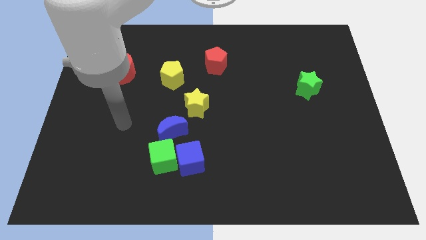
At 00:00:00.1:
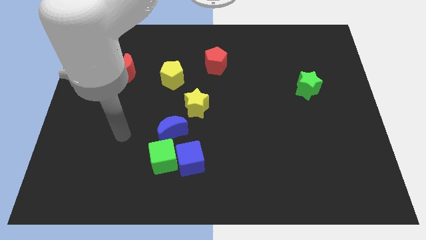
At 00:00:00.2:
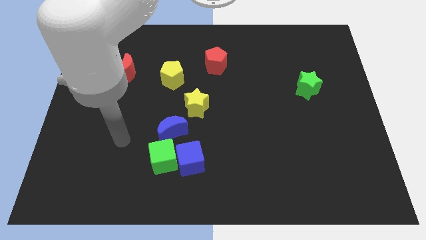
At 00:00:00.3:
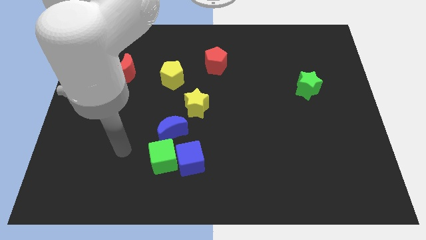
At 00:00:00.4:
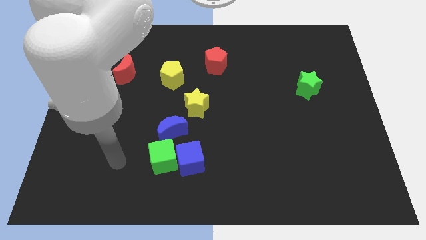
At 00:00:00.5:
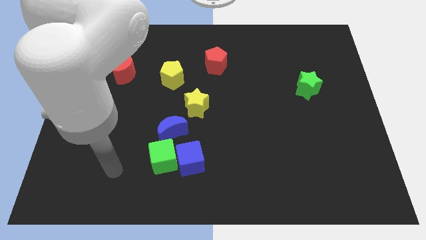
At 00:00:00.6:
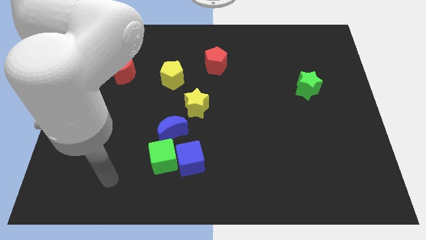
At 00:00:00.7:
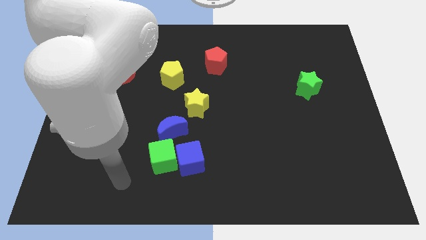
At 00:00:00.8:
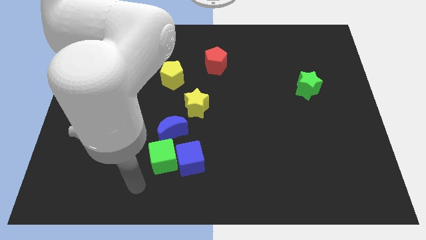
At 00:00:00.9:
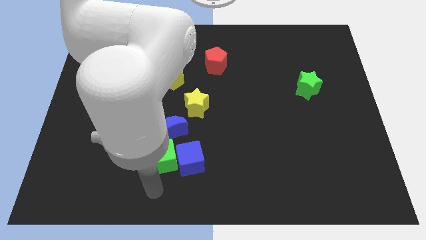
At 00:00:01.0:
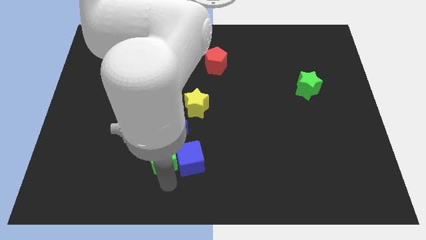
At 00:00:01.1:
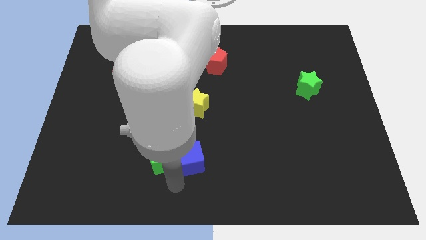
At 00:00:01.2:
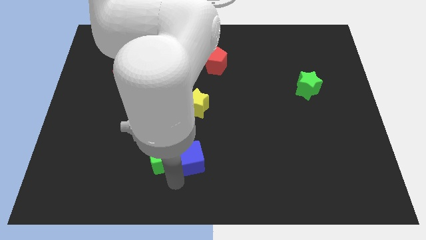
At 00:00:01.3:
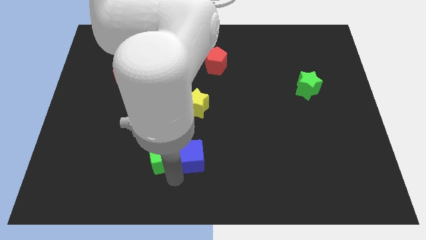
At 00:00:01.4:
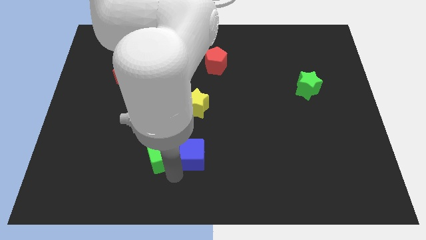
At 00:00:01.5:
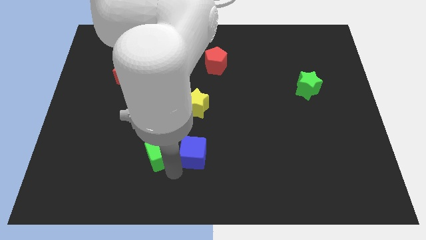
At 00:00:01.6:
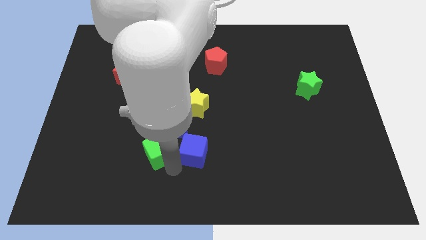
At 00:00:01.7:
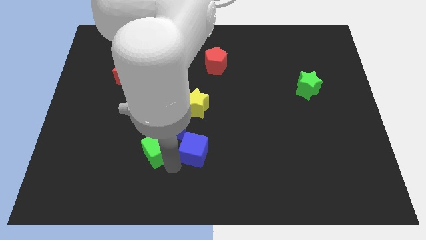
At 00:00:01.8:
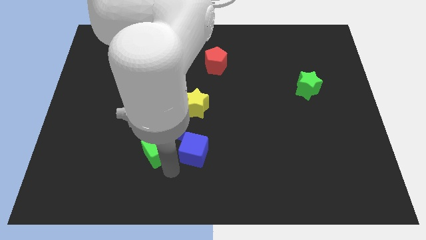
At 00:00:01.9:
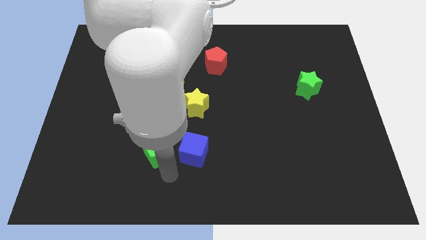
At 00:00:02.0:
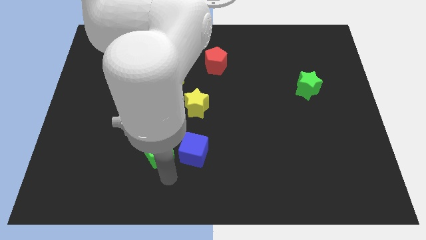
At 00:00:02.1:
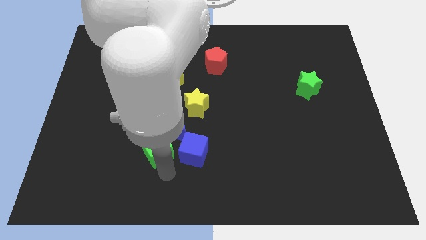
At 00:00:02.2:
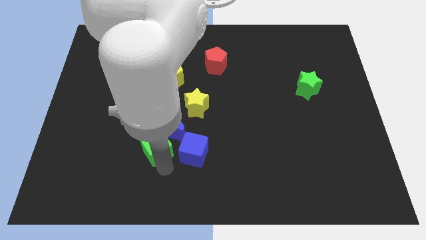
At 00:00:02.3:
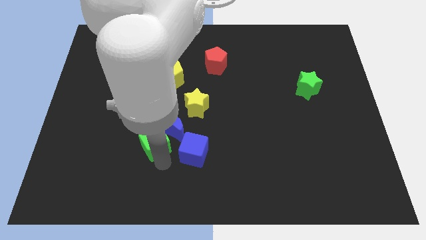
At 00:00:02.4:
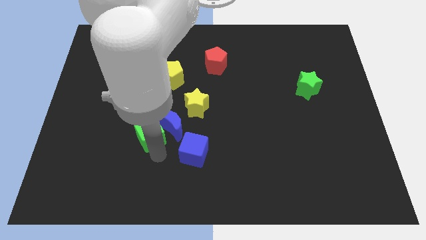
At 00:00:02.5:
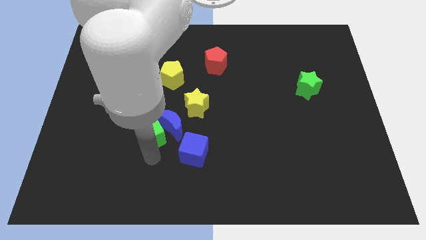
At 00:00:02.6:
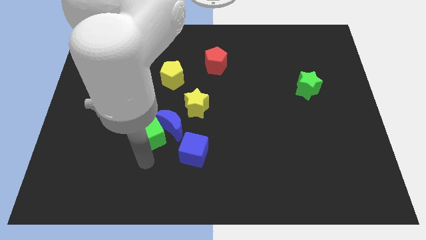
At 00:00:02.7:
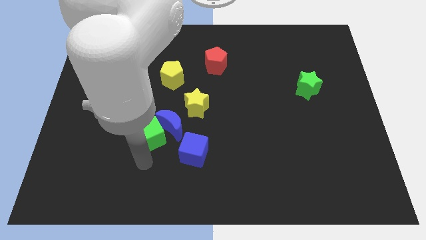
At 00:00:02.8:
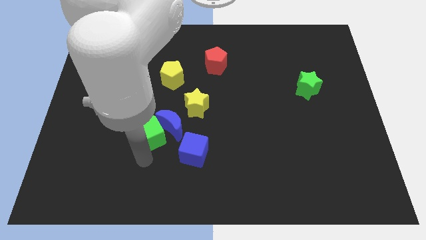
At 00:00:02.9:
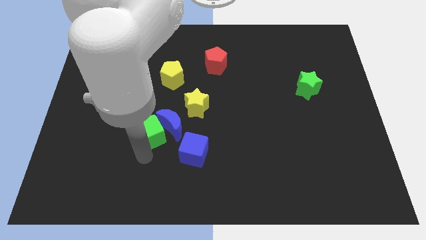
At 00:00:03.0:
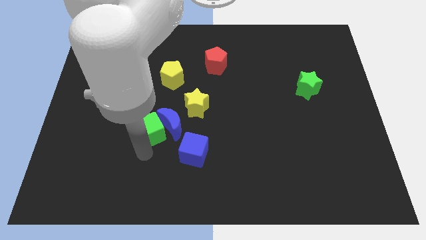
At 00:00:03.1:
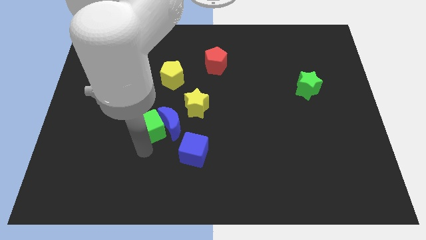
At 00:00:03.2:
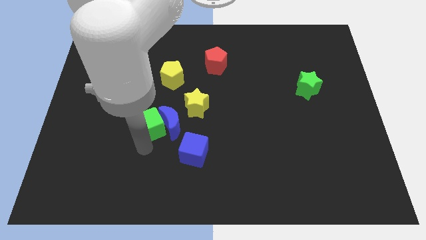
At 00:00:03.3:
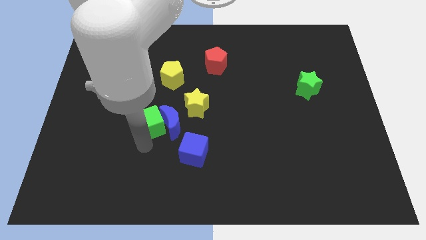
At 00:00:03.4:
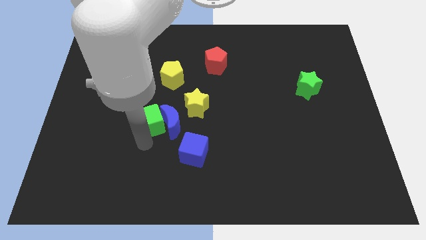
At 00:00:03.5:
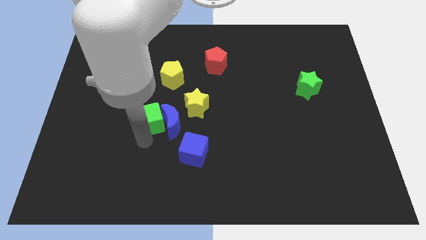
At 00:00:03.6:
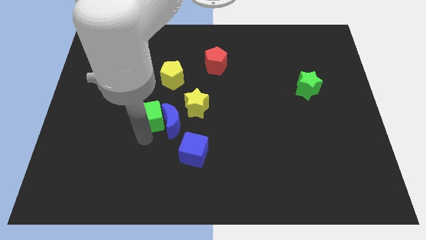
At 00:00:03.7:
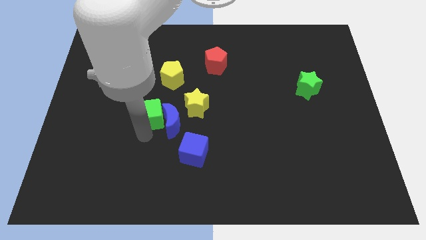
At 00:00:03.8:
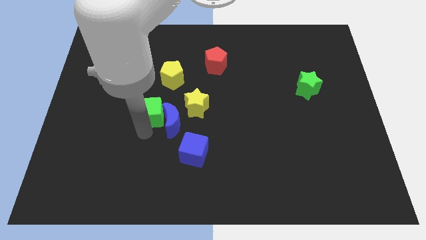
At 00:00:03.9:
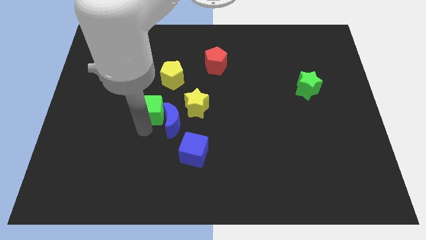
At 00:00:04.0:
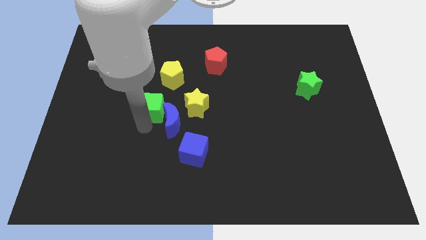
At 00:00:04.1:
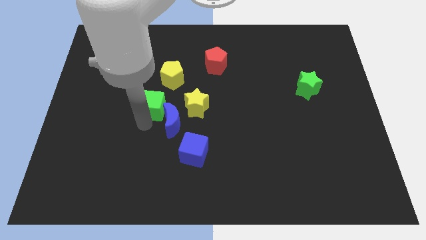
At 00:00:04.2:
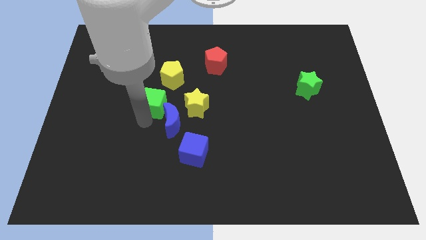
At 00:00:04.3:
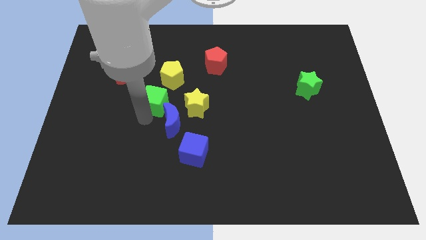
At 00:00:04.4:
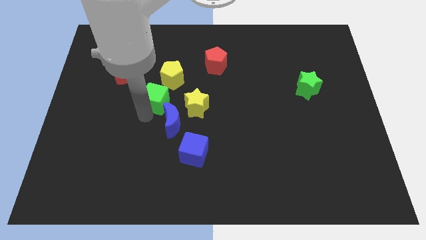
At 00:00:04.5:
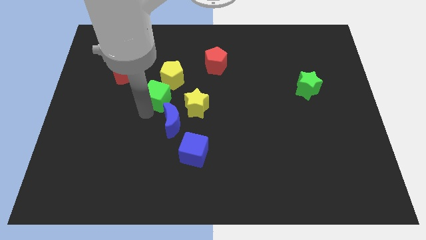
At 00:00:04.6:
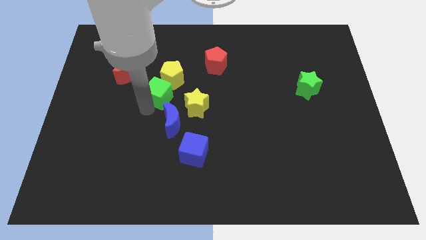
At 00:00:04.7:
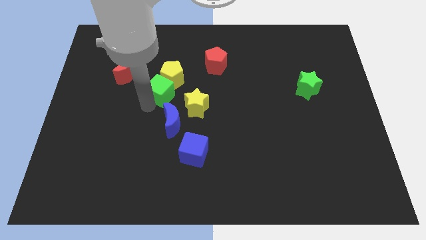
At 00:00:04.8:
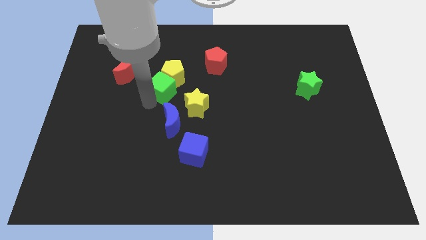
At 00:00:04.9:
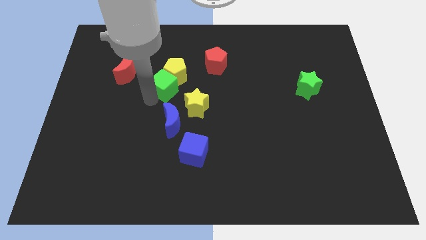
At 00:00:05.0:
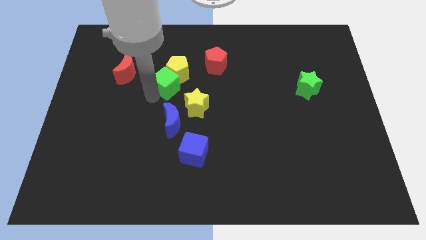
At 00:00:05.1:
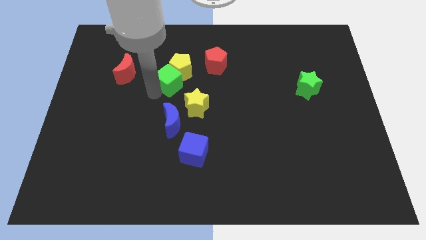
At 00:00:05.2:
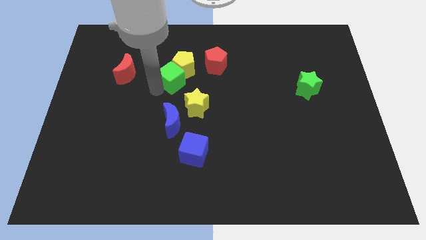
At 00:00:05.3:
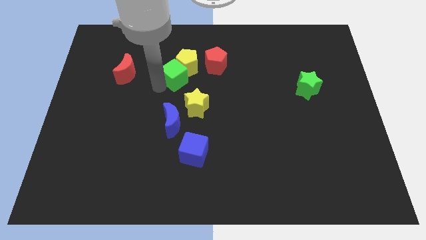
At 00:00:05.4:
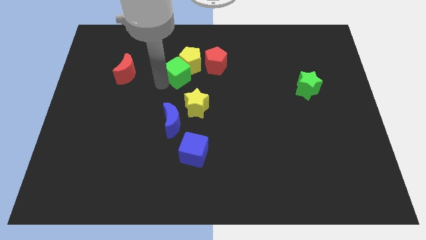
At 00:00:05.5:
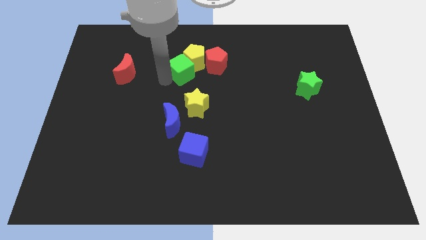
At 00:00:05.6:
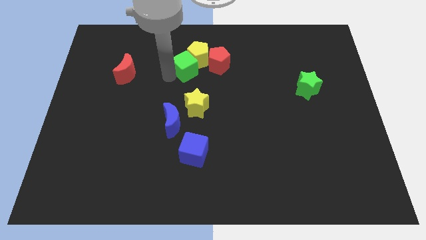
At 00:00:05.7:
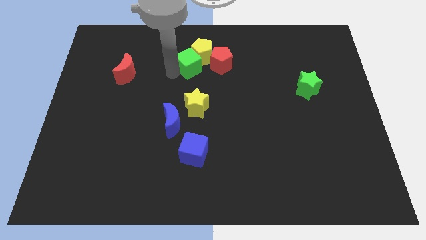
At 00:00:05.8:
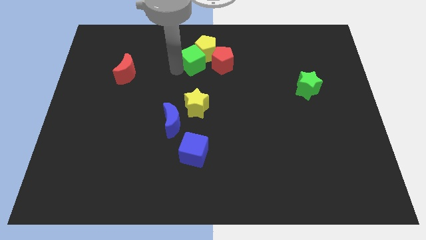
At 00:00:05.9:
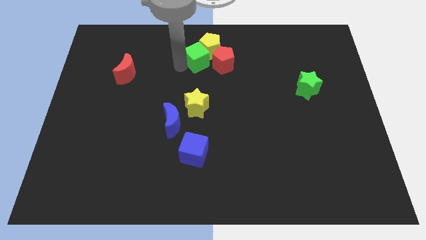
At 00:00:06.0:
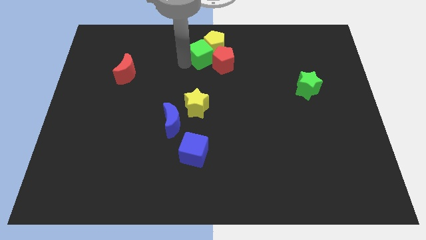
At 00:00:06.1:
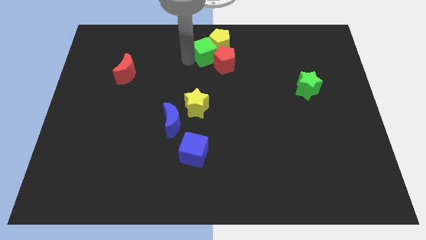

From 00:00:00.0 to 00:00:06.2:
push the green cube to the red pentagon

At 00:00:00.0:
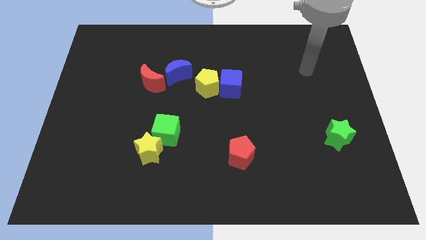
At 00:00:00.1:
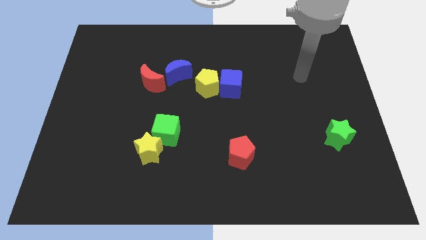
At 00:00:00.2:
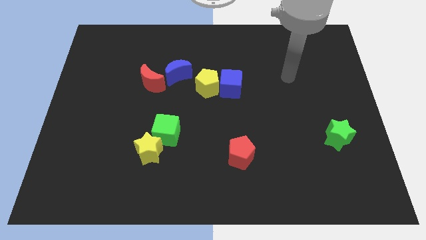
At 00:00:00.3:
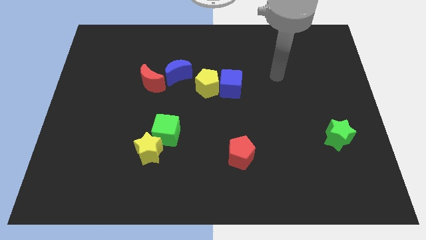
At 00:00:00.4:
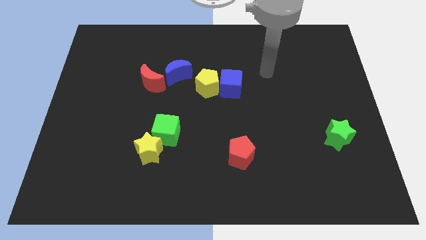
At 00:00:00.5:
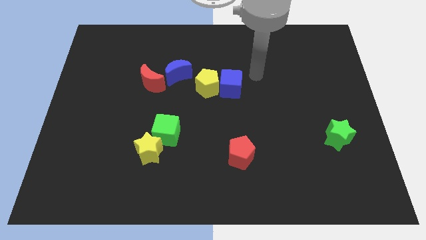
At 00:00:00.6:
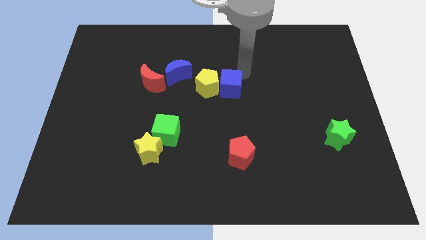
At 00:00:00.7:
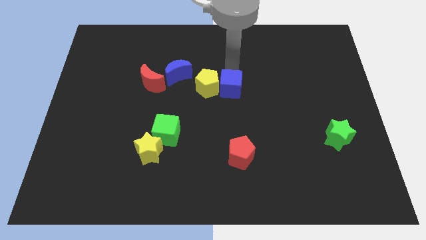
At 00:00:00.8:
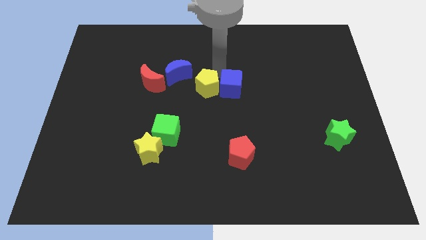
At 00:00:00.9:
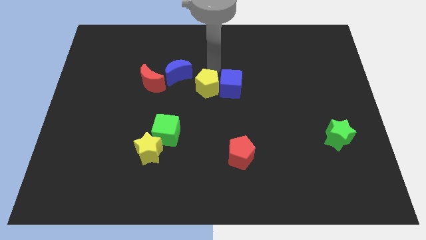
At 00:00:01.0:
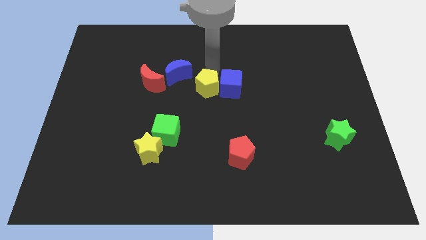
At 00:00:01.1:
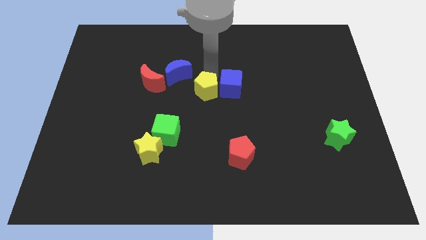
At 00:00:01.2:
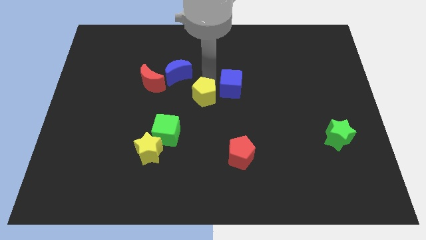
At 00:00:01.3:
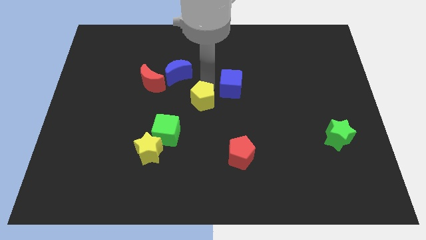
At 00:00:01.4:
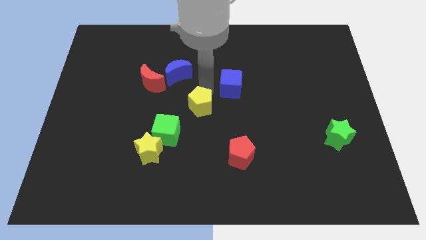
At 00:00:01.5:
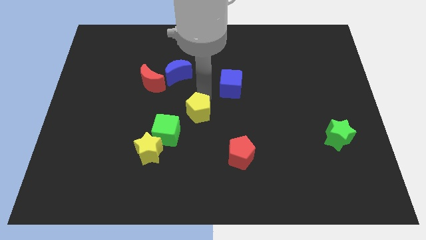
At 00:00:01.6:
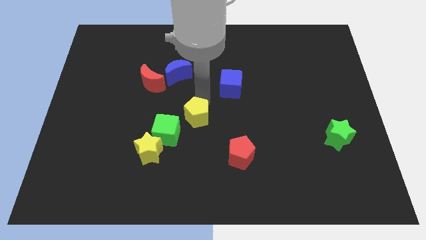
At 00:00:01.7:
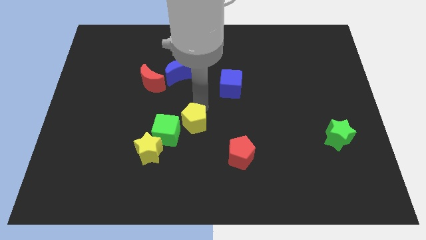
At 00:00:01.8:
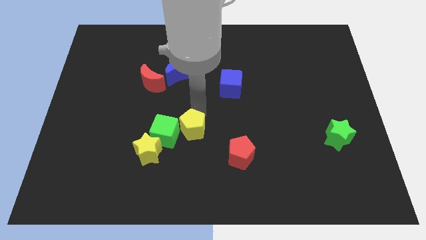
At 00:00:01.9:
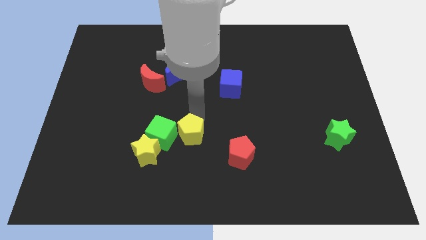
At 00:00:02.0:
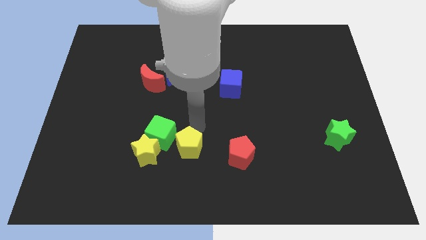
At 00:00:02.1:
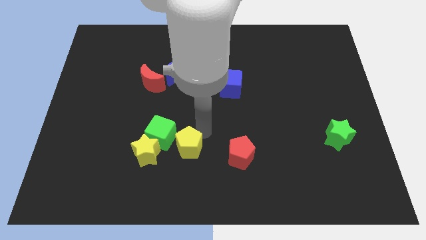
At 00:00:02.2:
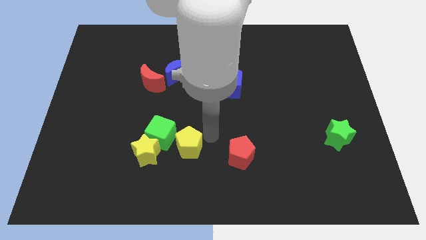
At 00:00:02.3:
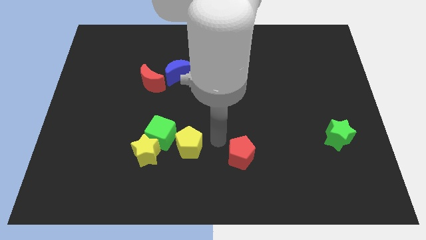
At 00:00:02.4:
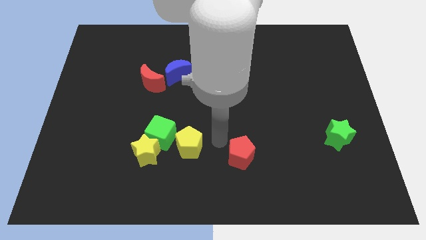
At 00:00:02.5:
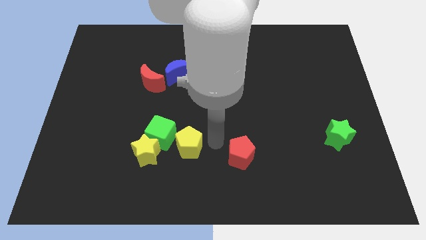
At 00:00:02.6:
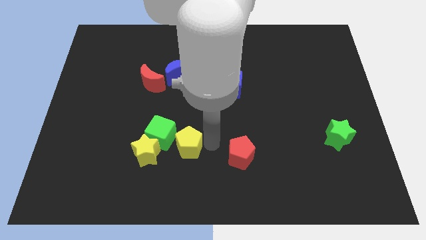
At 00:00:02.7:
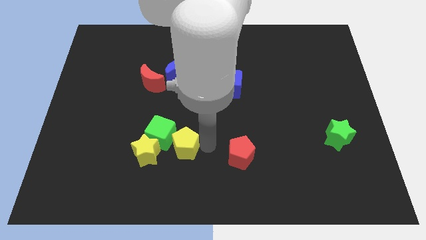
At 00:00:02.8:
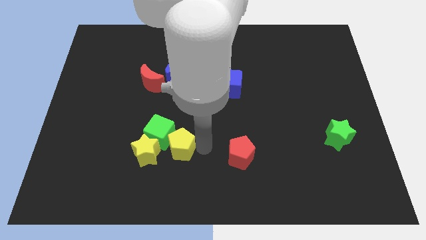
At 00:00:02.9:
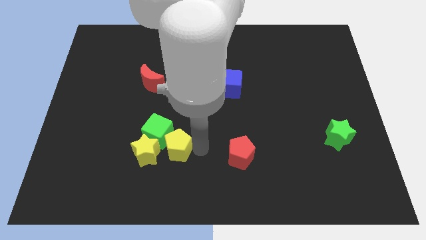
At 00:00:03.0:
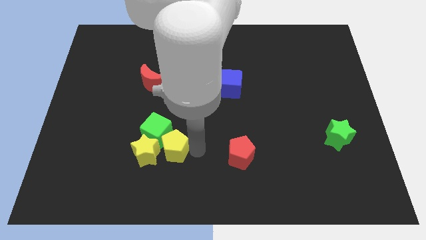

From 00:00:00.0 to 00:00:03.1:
put the yellow pentagon to the yellow star
